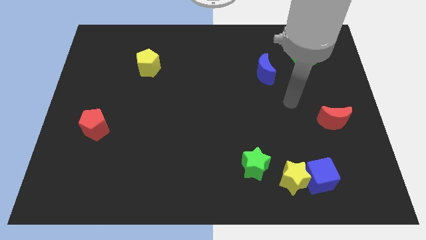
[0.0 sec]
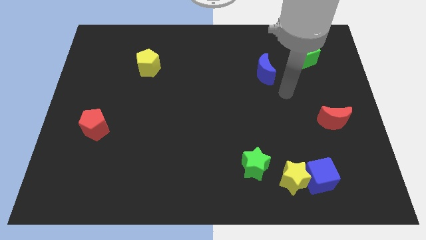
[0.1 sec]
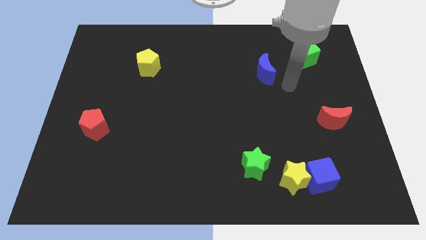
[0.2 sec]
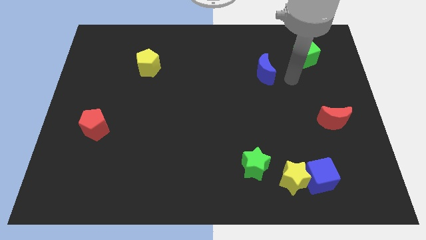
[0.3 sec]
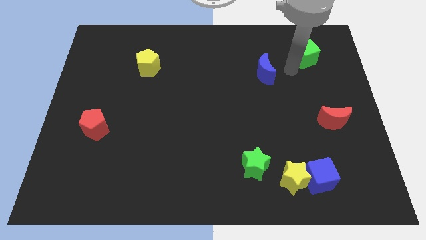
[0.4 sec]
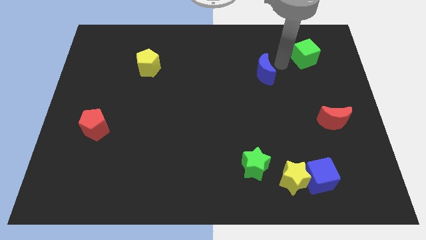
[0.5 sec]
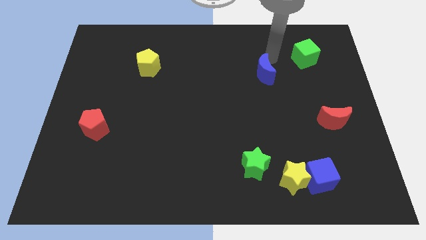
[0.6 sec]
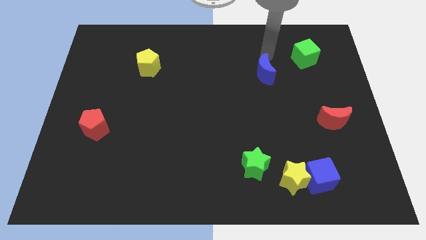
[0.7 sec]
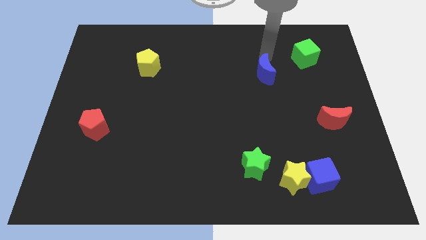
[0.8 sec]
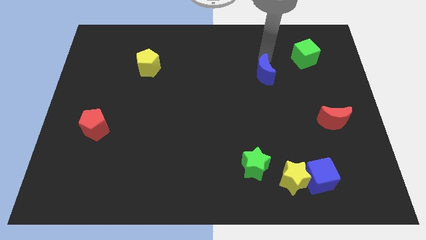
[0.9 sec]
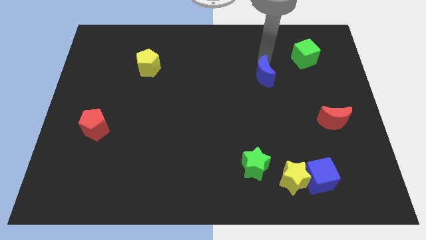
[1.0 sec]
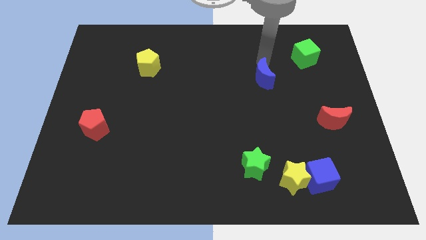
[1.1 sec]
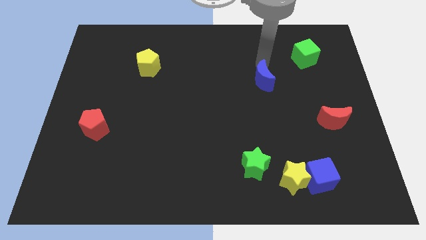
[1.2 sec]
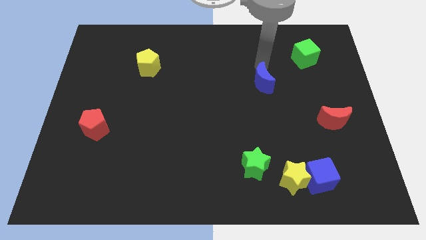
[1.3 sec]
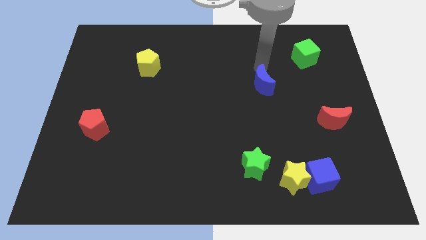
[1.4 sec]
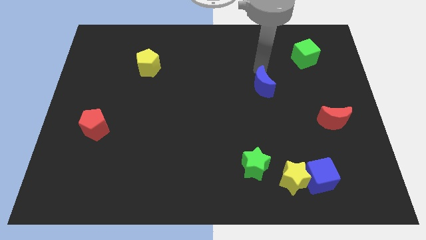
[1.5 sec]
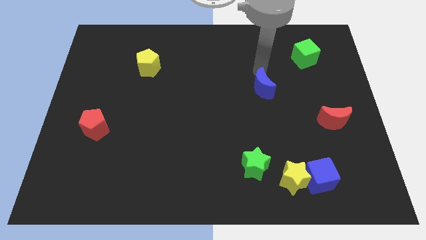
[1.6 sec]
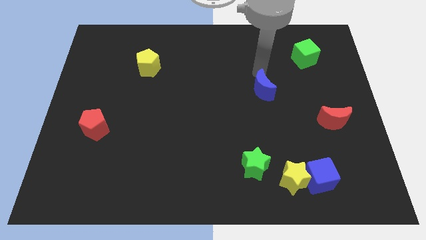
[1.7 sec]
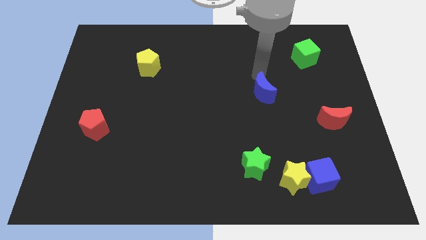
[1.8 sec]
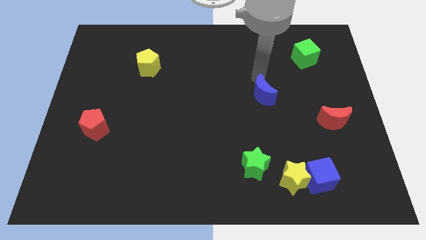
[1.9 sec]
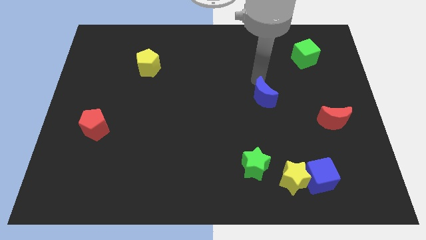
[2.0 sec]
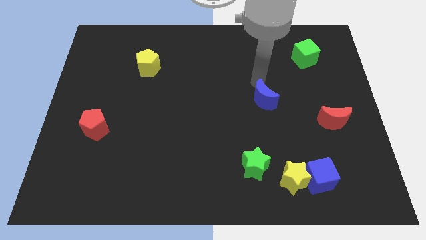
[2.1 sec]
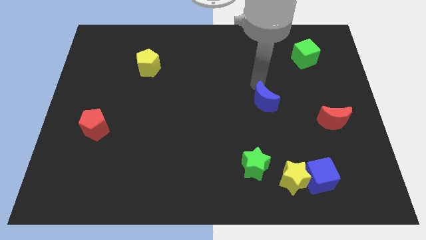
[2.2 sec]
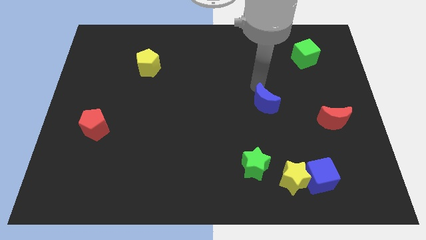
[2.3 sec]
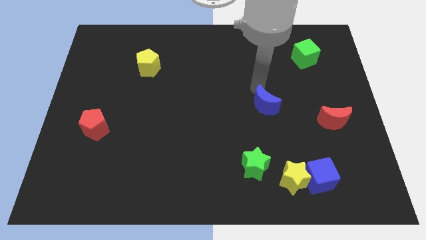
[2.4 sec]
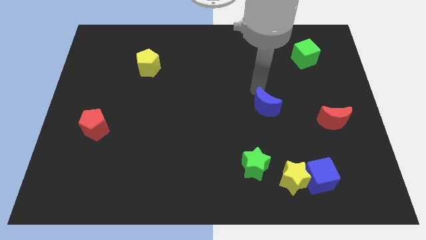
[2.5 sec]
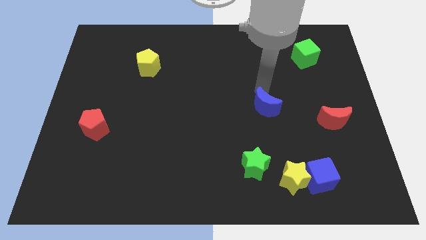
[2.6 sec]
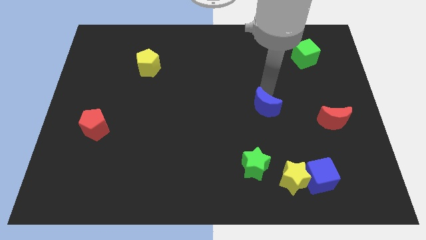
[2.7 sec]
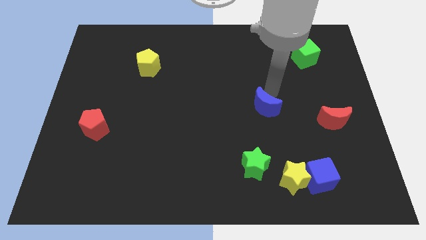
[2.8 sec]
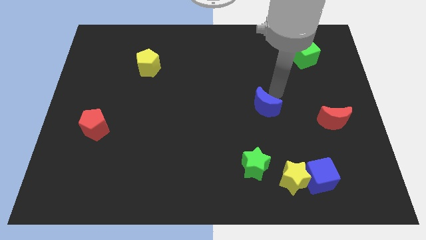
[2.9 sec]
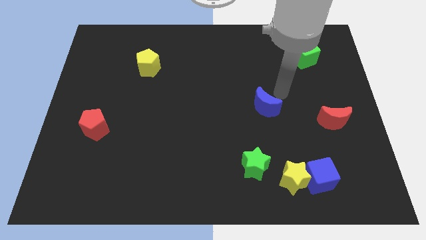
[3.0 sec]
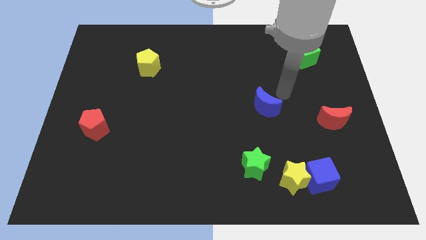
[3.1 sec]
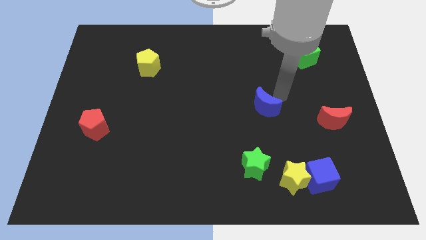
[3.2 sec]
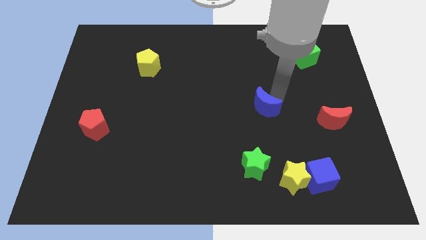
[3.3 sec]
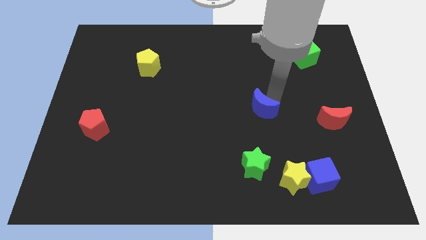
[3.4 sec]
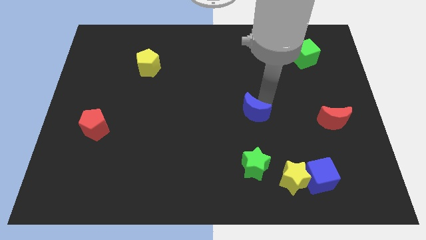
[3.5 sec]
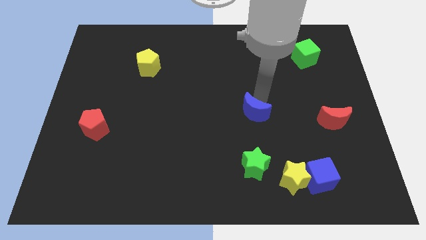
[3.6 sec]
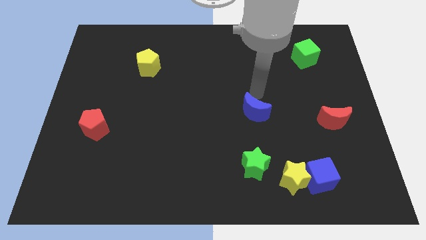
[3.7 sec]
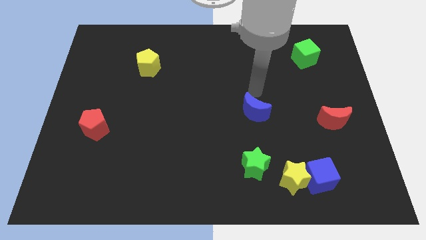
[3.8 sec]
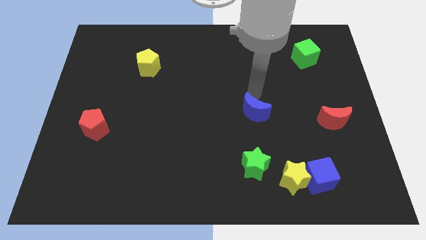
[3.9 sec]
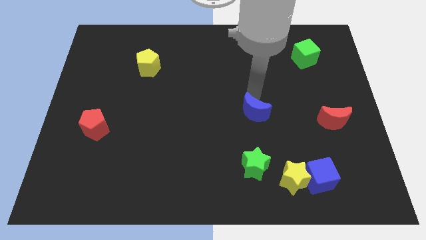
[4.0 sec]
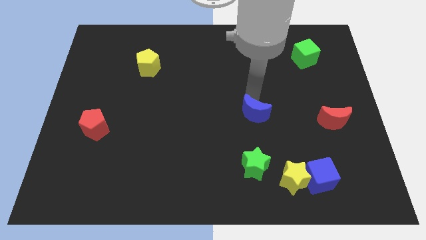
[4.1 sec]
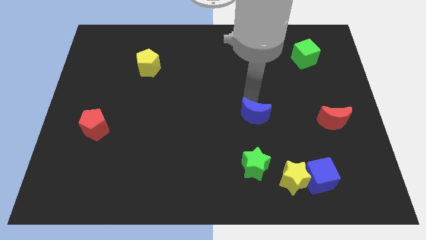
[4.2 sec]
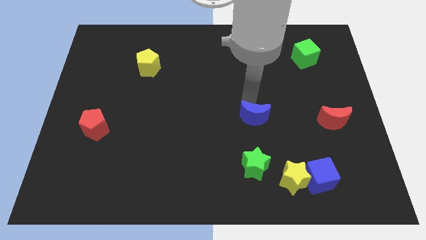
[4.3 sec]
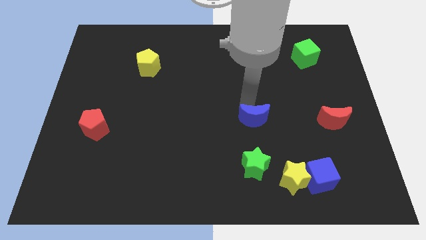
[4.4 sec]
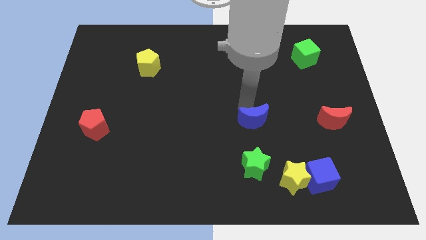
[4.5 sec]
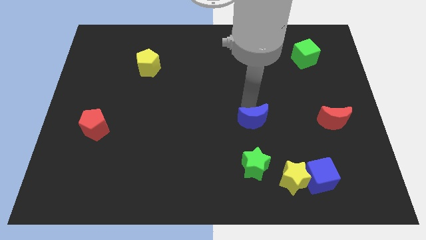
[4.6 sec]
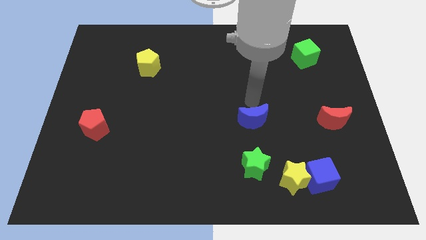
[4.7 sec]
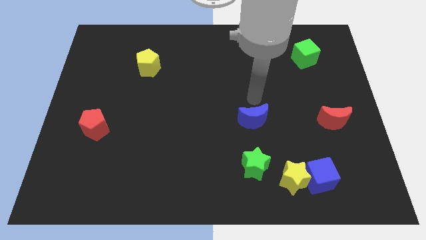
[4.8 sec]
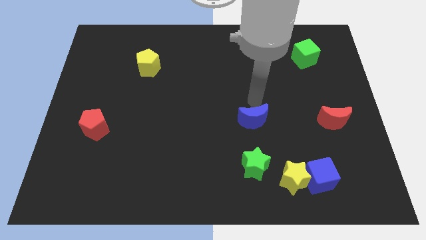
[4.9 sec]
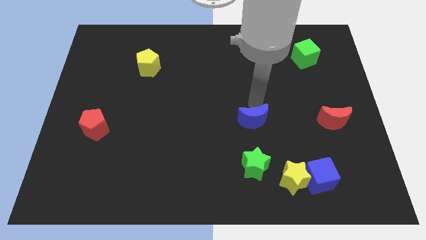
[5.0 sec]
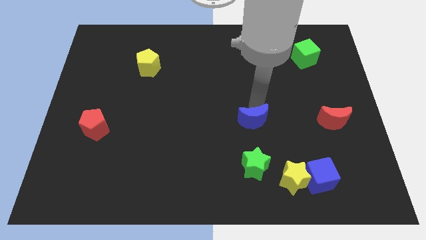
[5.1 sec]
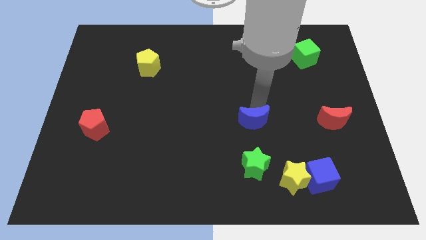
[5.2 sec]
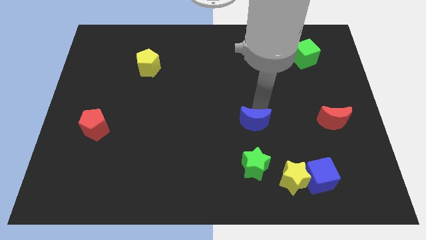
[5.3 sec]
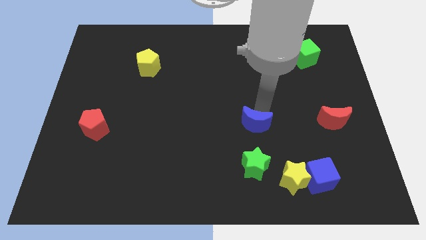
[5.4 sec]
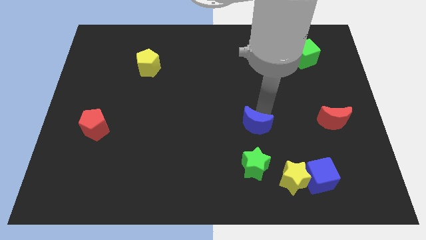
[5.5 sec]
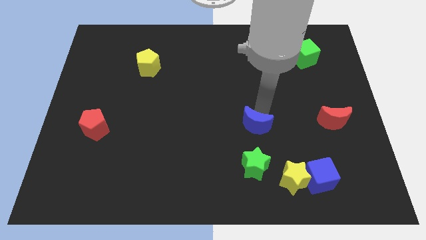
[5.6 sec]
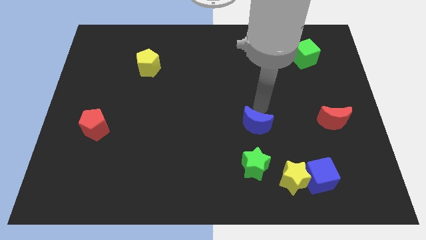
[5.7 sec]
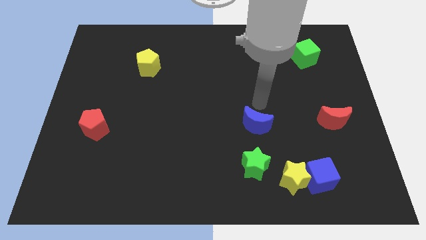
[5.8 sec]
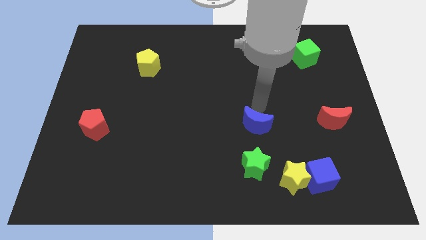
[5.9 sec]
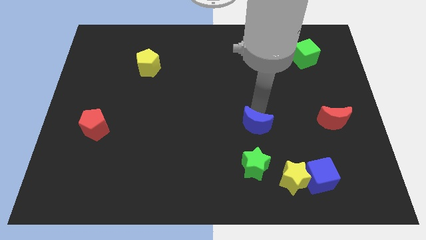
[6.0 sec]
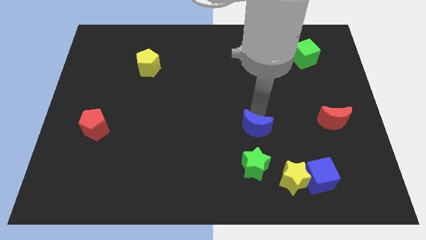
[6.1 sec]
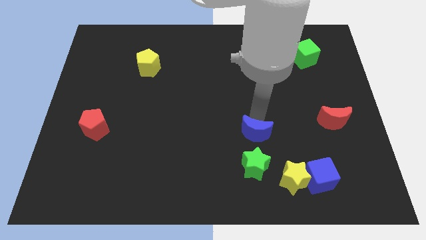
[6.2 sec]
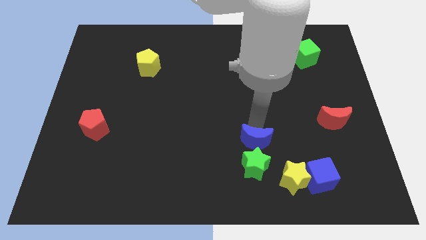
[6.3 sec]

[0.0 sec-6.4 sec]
slide the blue moon to the green star
